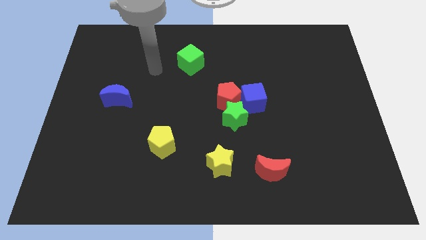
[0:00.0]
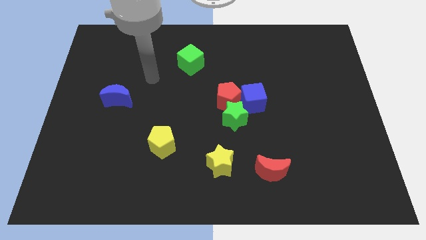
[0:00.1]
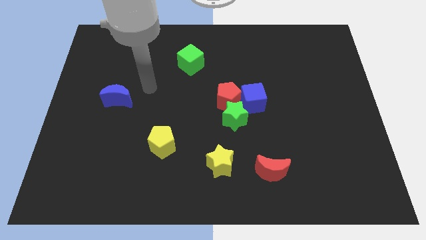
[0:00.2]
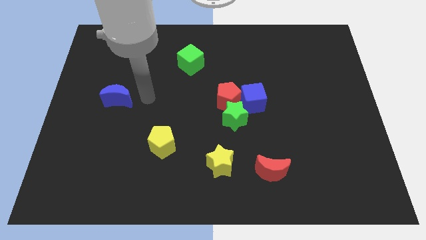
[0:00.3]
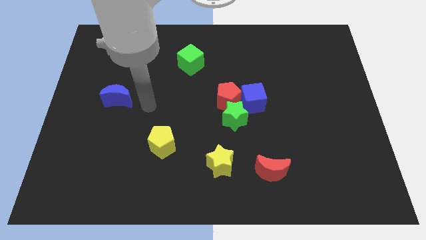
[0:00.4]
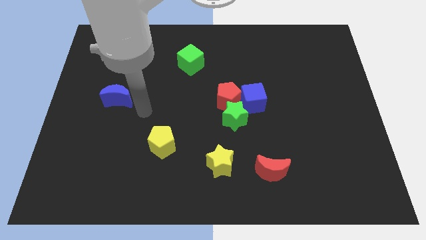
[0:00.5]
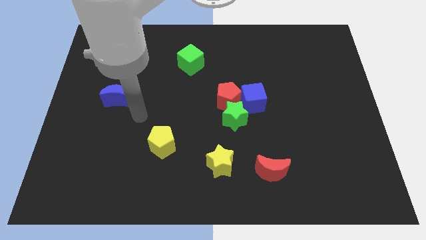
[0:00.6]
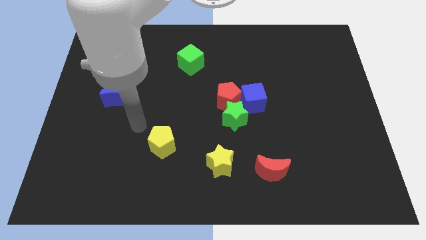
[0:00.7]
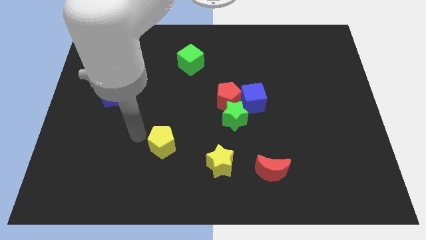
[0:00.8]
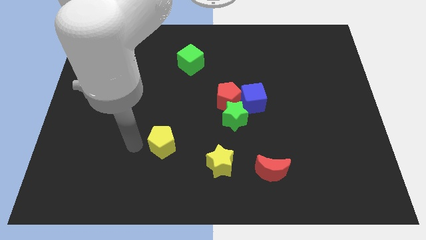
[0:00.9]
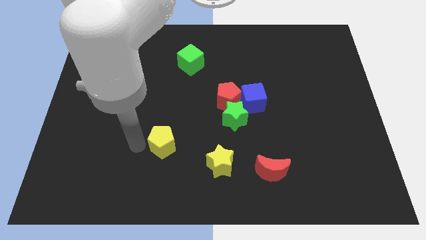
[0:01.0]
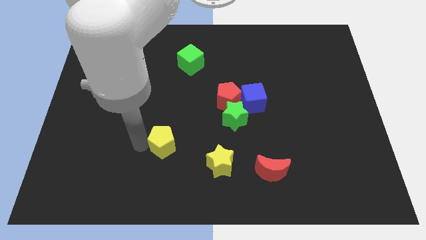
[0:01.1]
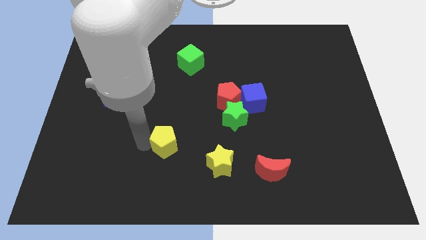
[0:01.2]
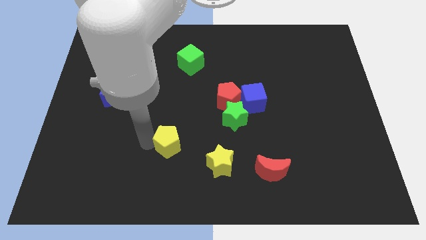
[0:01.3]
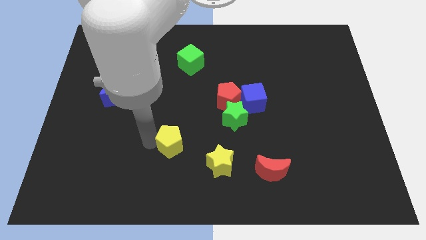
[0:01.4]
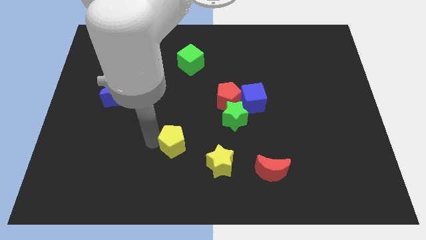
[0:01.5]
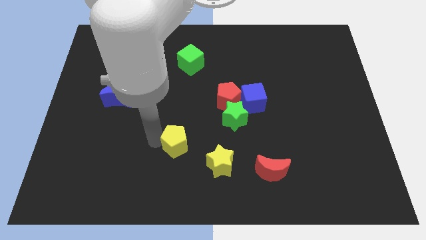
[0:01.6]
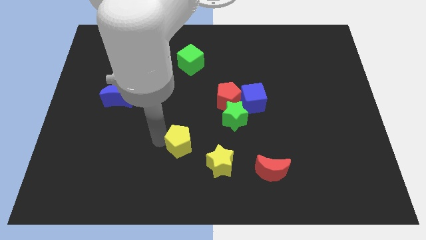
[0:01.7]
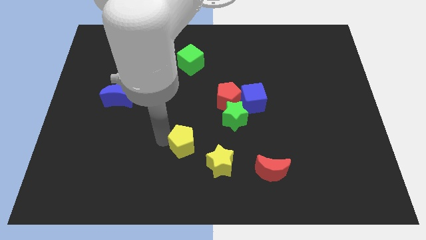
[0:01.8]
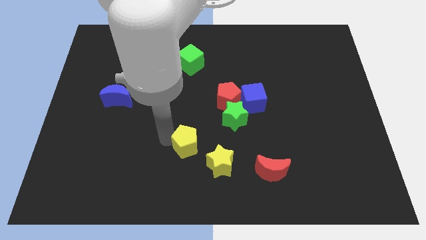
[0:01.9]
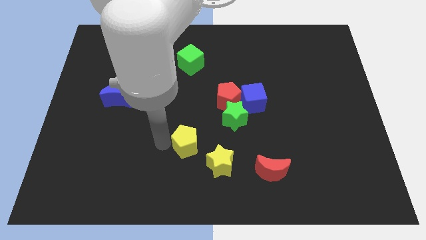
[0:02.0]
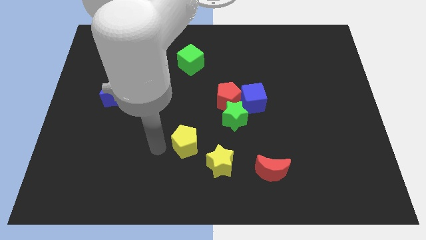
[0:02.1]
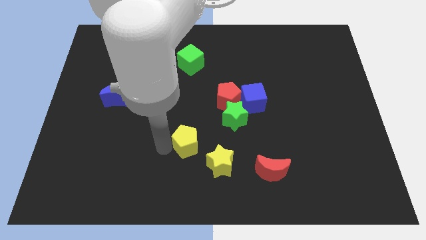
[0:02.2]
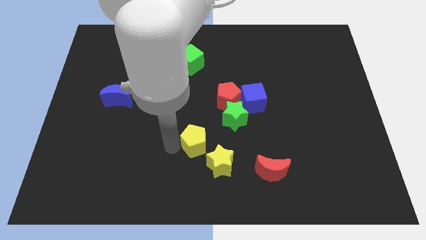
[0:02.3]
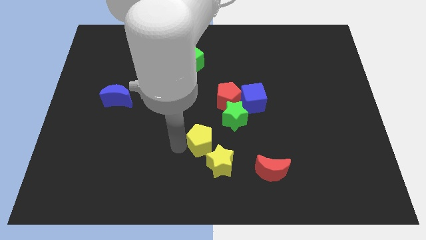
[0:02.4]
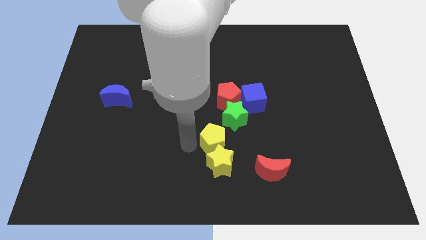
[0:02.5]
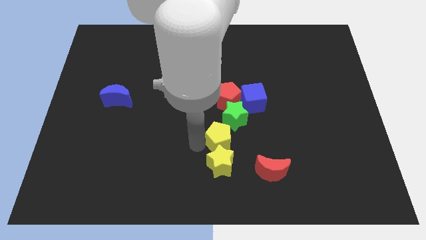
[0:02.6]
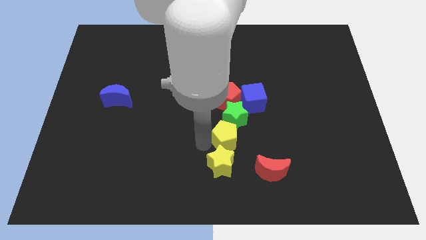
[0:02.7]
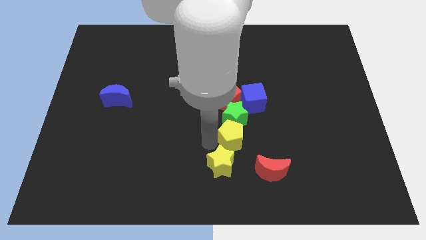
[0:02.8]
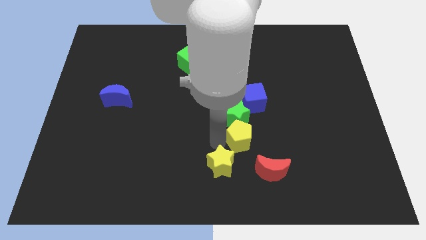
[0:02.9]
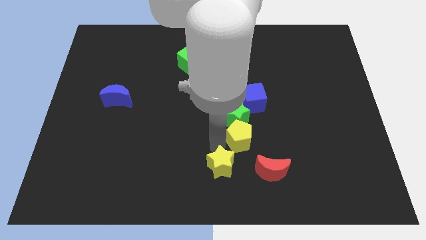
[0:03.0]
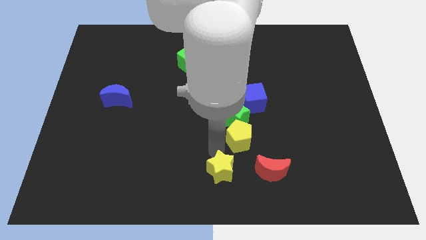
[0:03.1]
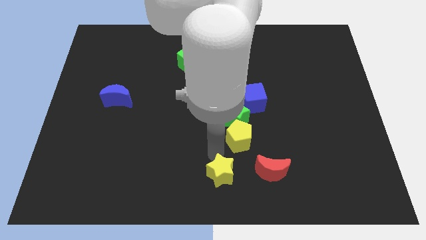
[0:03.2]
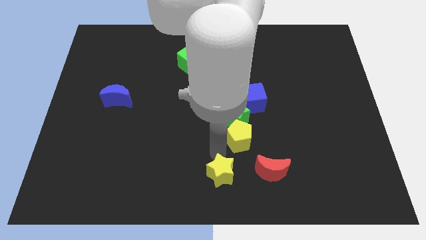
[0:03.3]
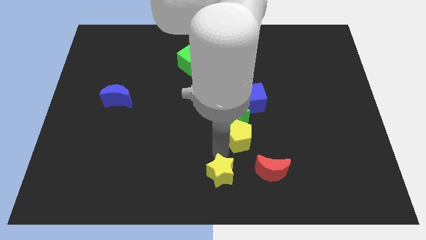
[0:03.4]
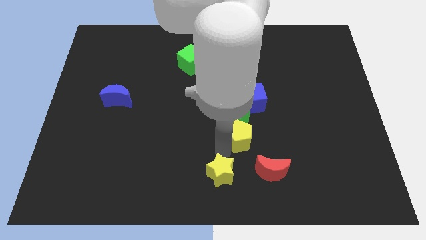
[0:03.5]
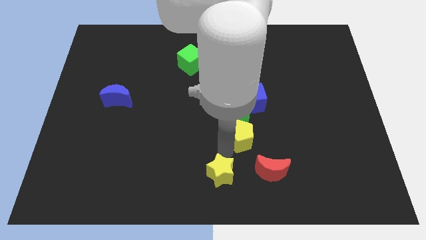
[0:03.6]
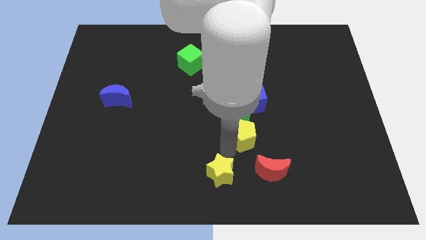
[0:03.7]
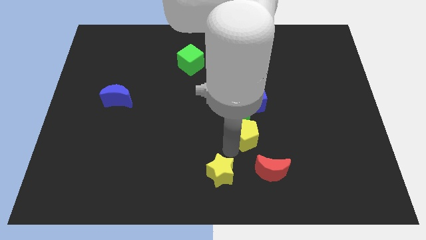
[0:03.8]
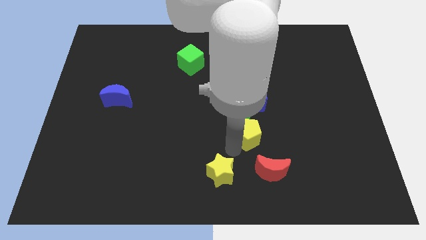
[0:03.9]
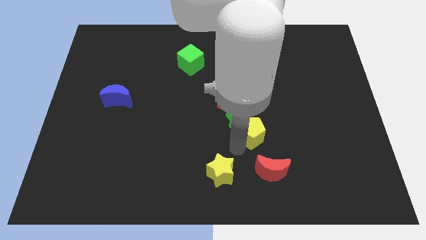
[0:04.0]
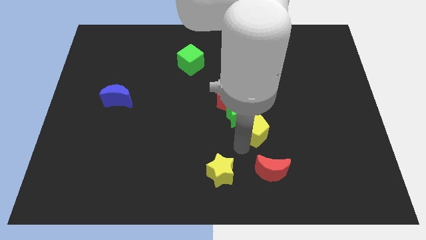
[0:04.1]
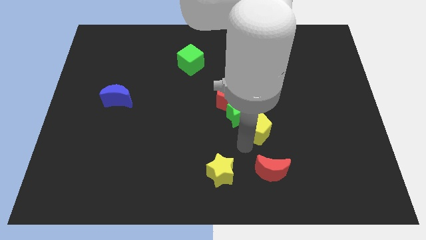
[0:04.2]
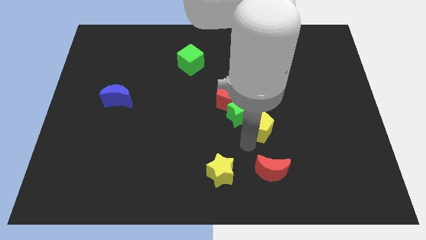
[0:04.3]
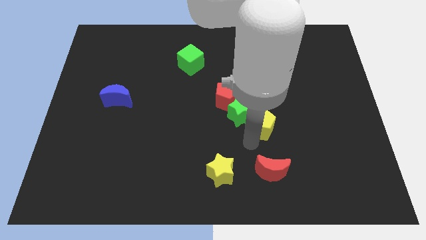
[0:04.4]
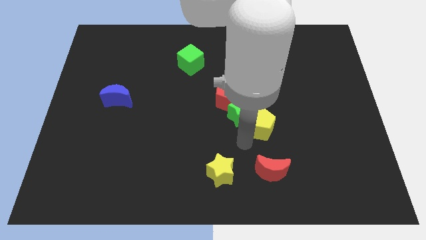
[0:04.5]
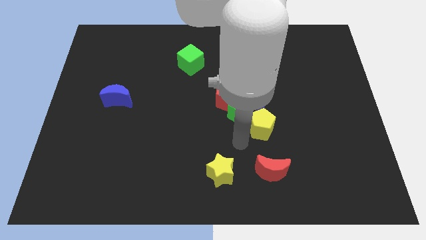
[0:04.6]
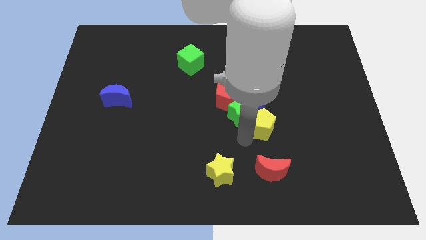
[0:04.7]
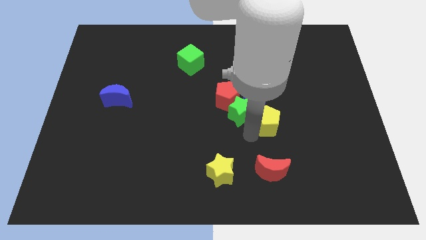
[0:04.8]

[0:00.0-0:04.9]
move the yellow pentagon to the bottom right side of the blue cube

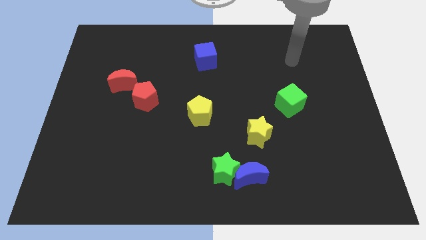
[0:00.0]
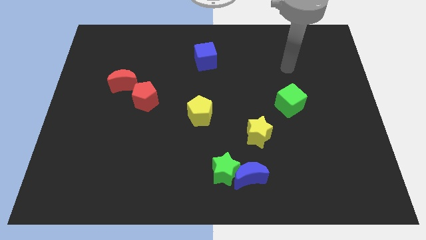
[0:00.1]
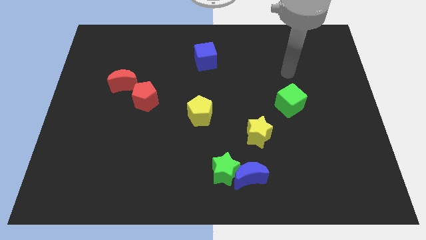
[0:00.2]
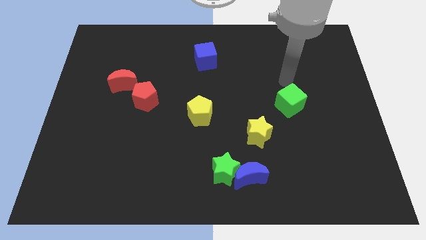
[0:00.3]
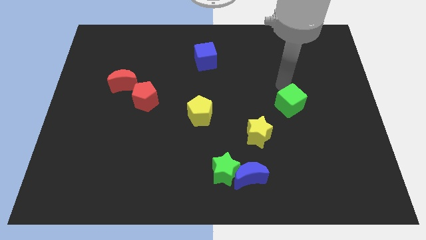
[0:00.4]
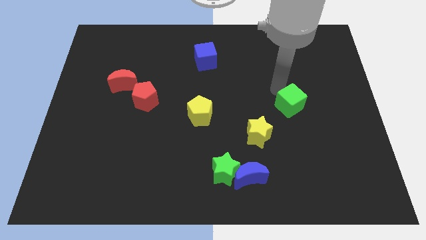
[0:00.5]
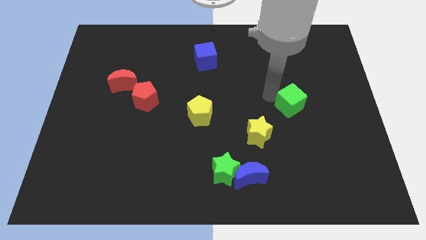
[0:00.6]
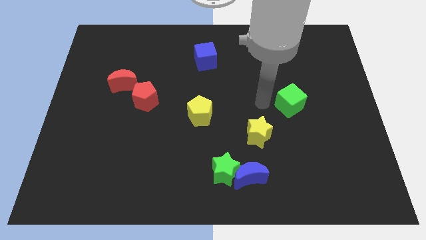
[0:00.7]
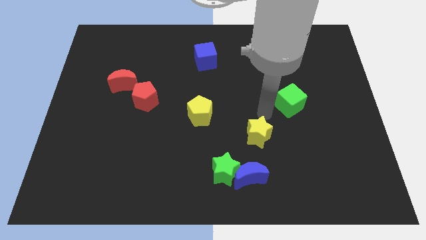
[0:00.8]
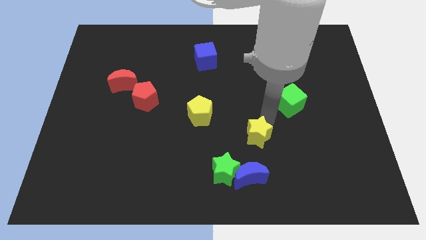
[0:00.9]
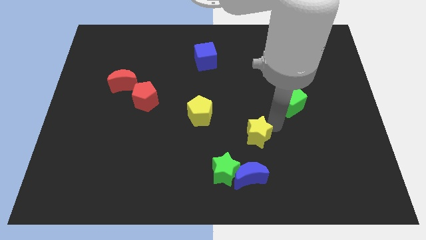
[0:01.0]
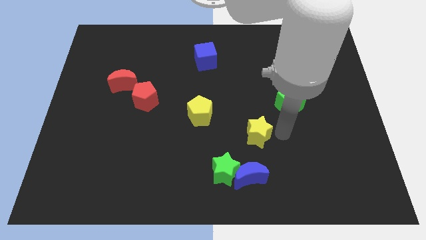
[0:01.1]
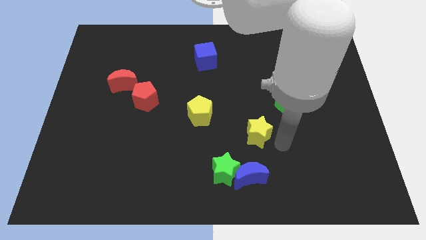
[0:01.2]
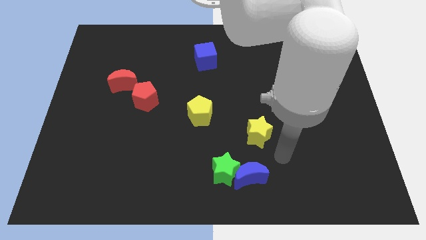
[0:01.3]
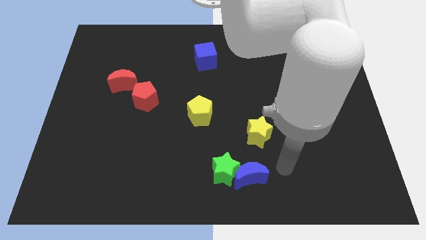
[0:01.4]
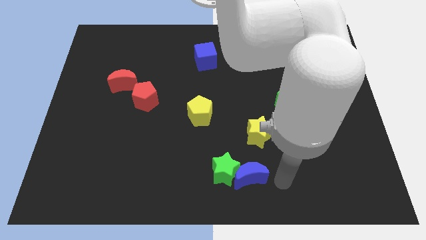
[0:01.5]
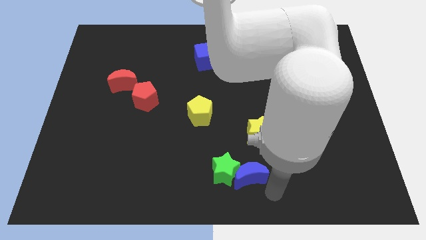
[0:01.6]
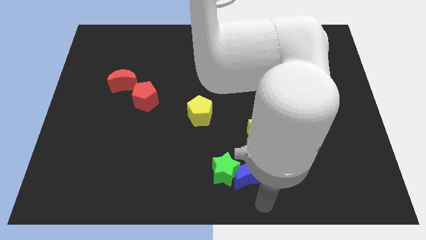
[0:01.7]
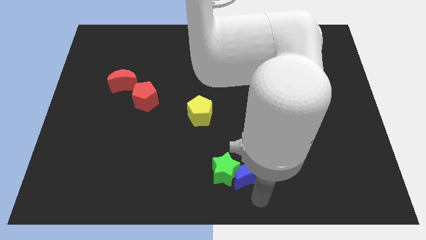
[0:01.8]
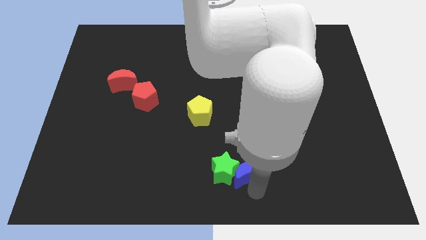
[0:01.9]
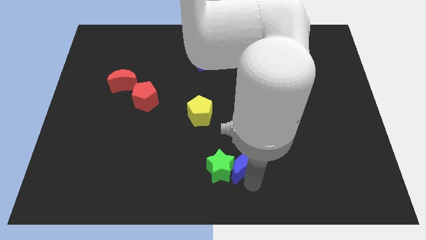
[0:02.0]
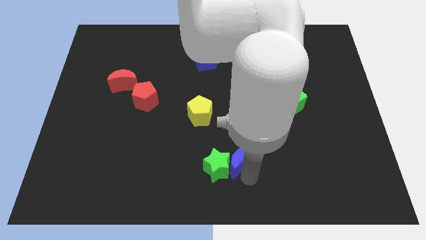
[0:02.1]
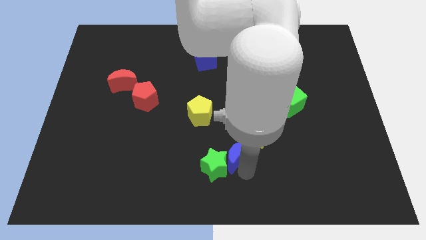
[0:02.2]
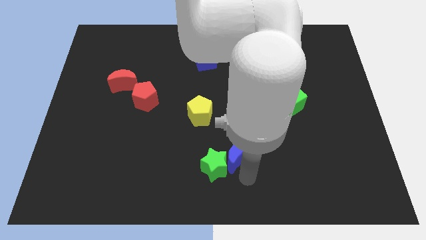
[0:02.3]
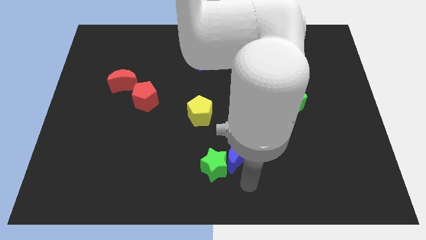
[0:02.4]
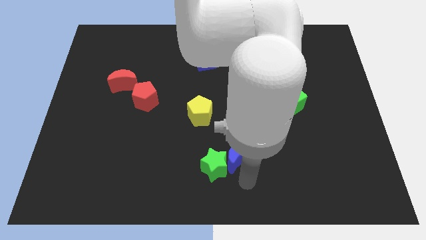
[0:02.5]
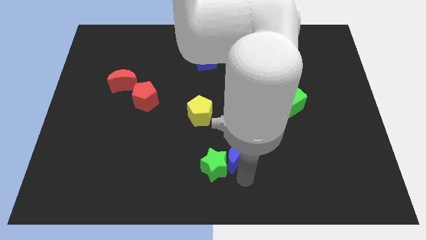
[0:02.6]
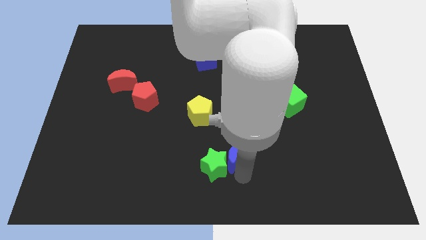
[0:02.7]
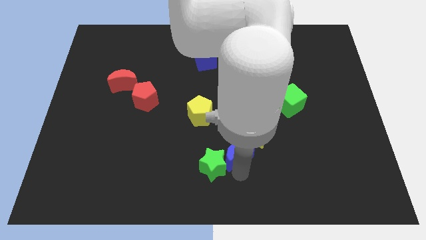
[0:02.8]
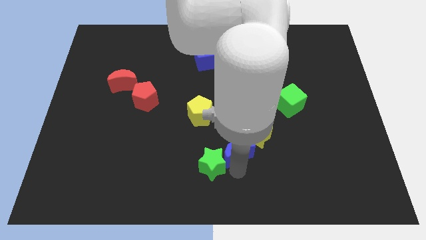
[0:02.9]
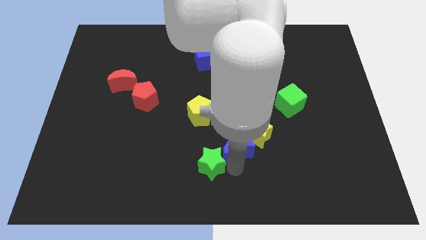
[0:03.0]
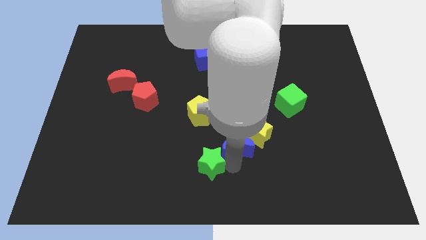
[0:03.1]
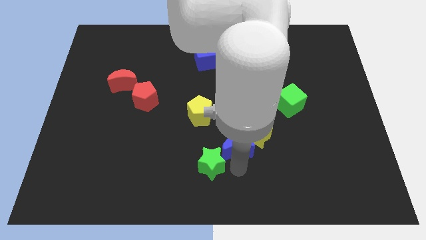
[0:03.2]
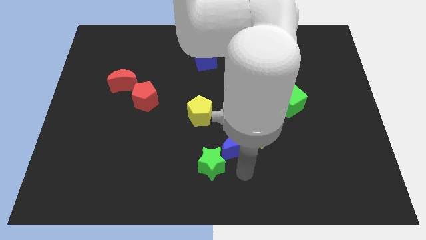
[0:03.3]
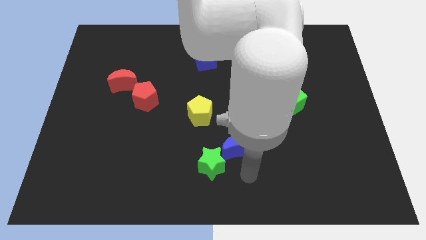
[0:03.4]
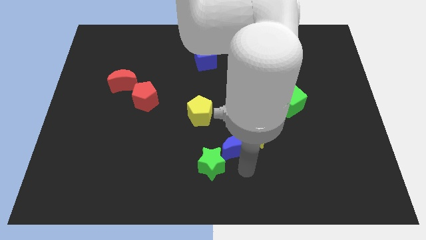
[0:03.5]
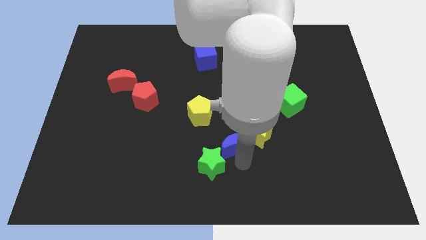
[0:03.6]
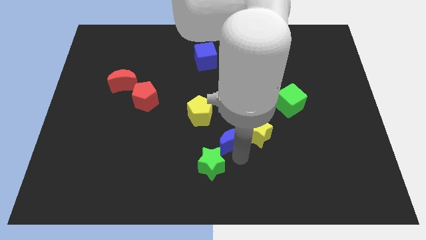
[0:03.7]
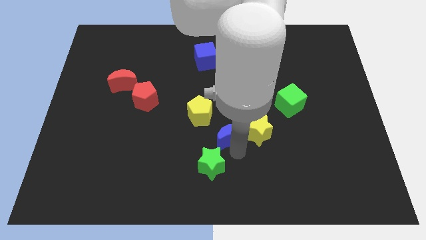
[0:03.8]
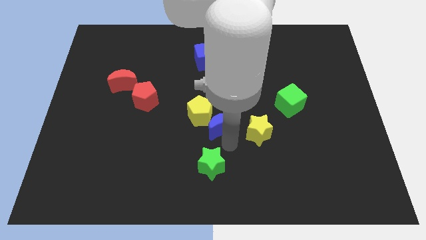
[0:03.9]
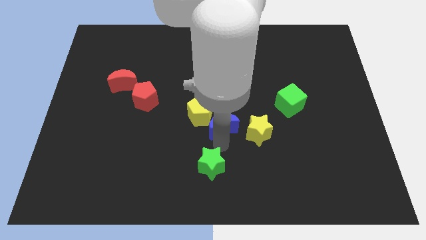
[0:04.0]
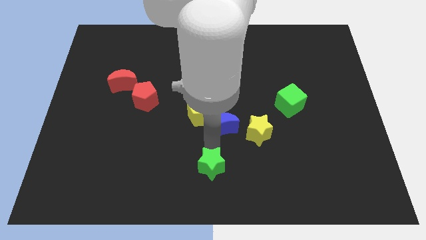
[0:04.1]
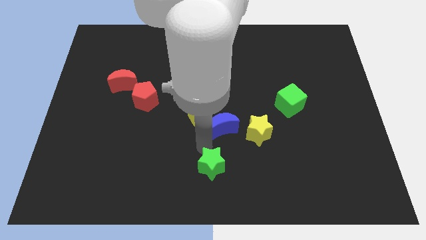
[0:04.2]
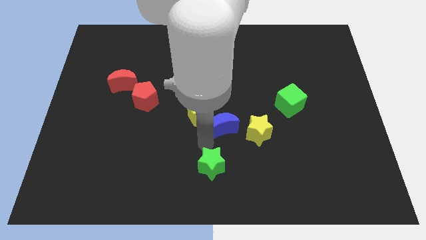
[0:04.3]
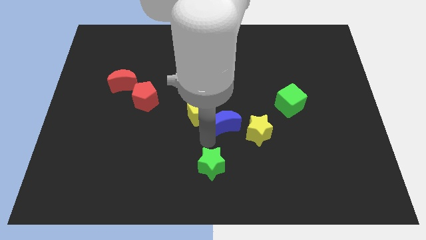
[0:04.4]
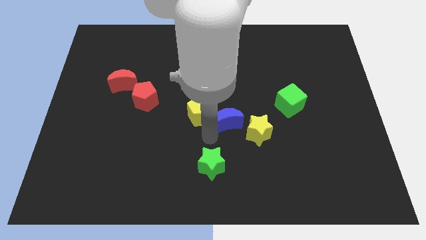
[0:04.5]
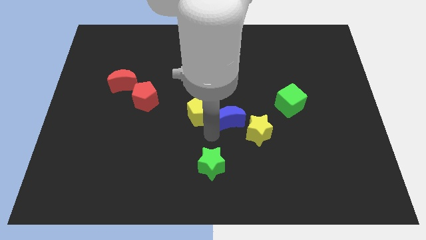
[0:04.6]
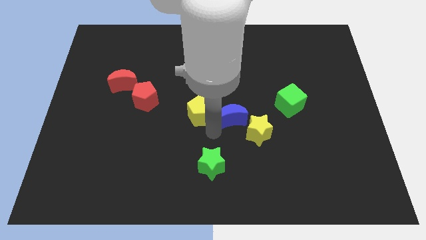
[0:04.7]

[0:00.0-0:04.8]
slide the blue moon just left of the green cube
